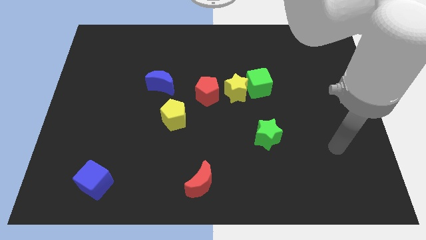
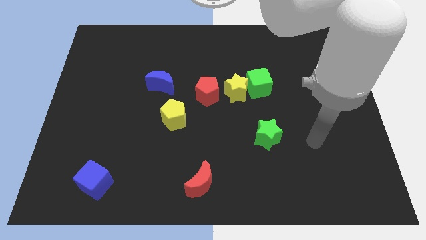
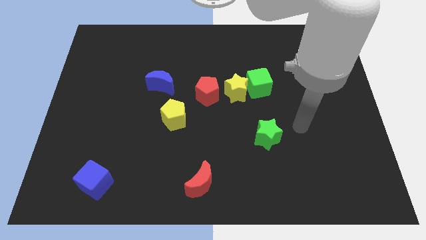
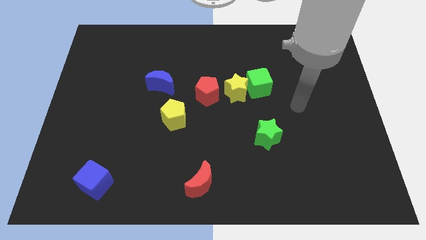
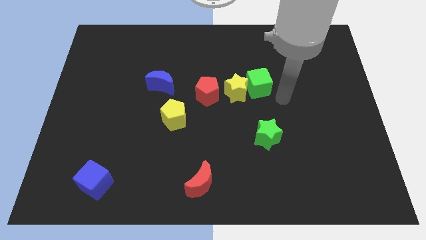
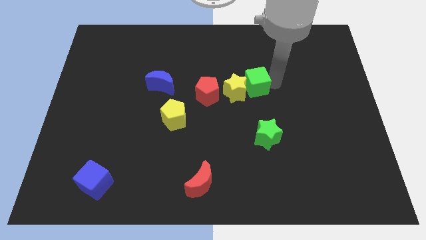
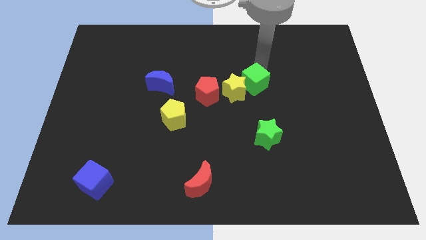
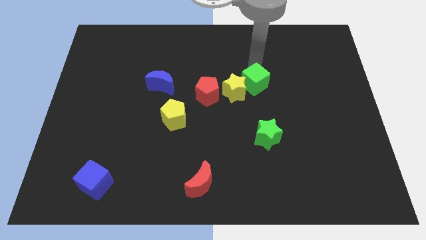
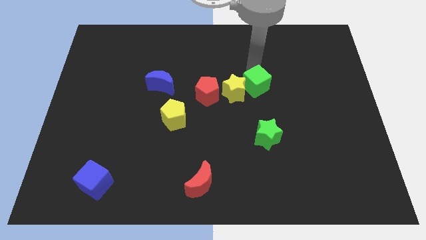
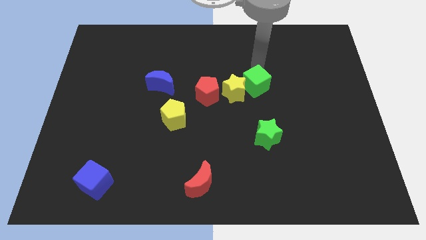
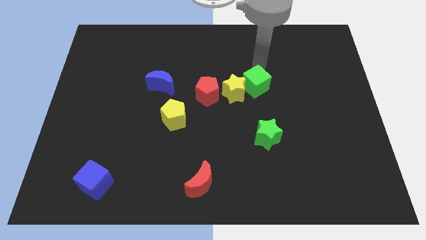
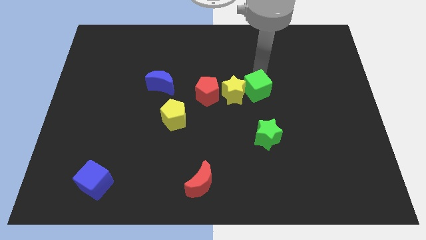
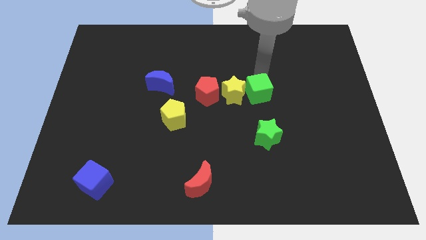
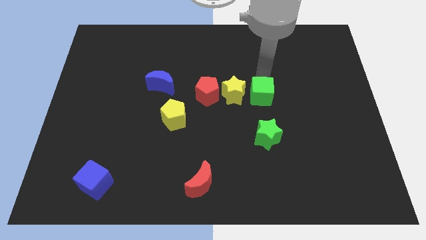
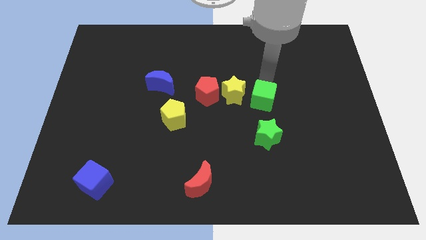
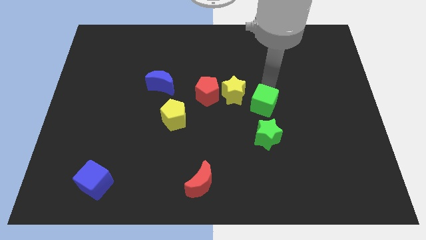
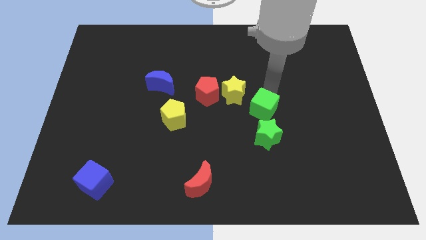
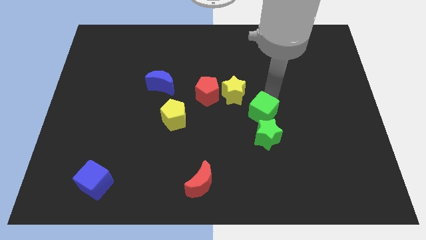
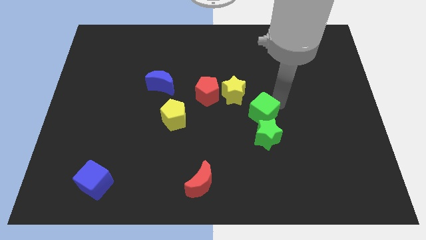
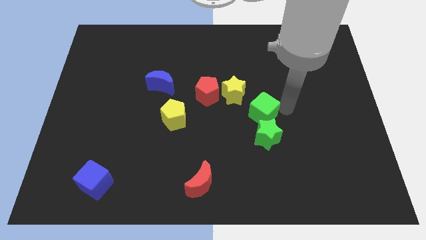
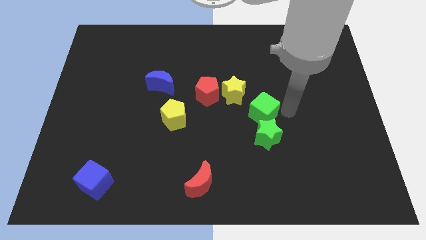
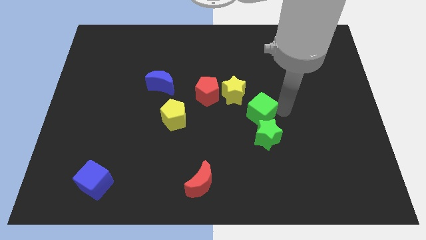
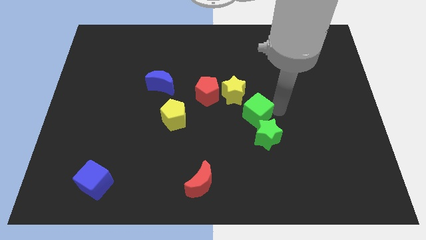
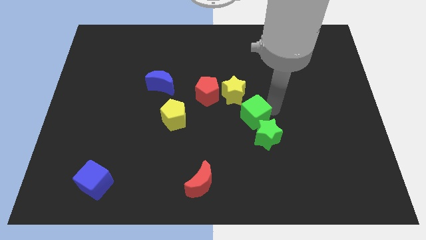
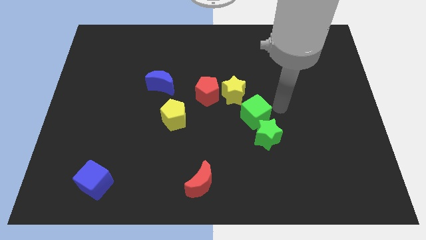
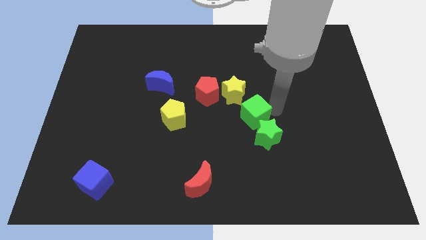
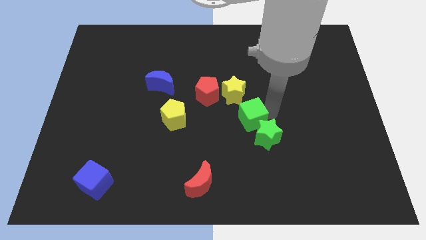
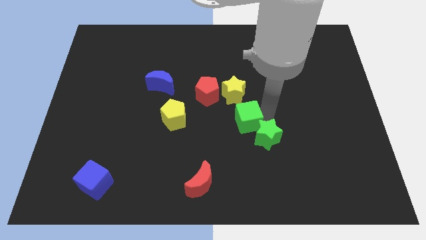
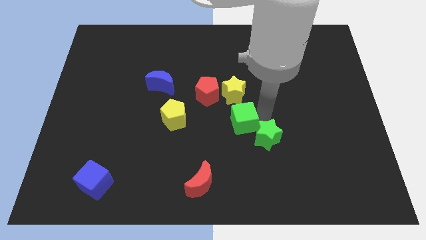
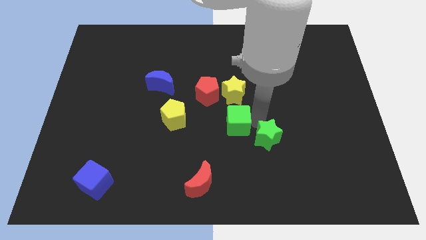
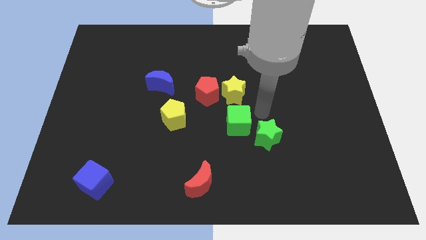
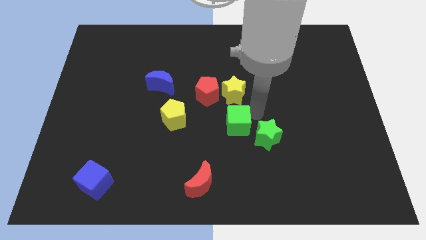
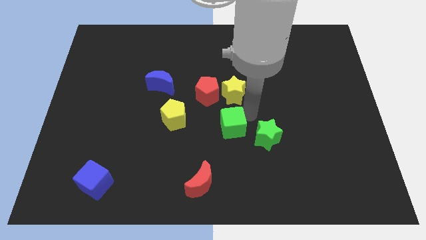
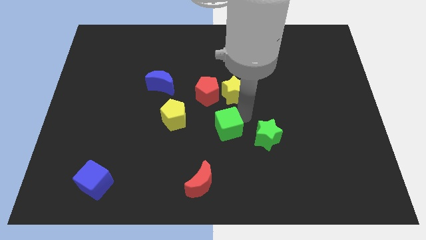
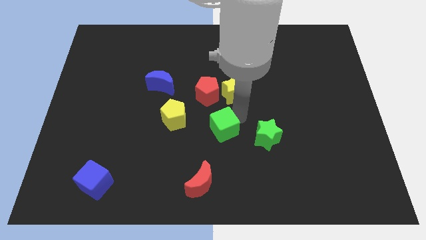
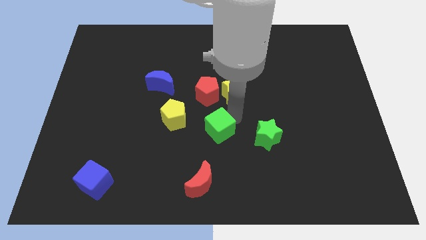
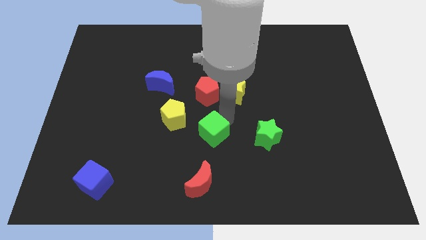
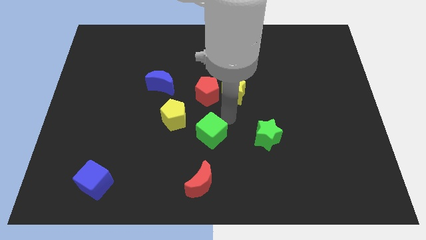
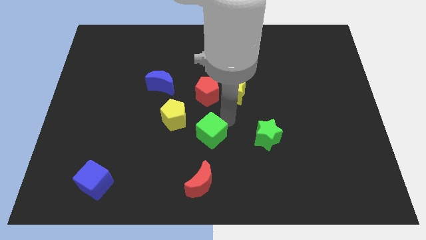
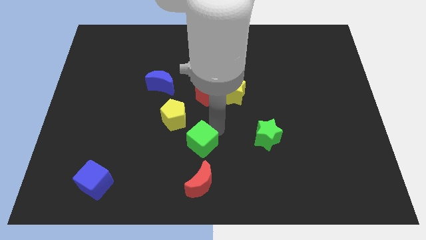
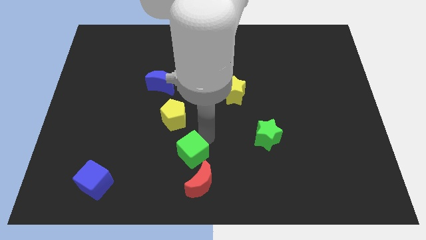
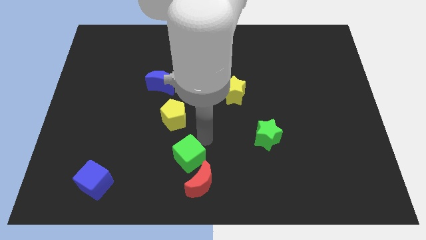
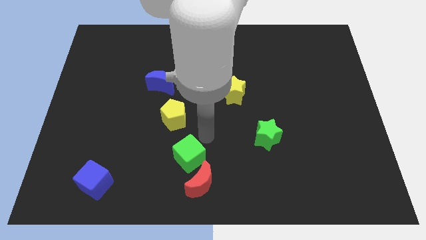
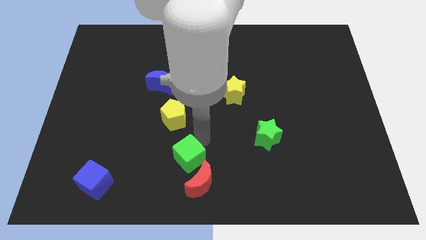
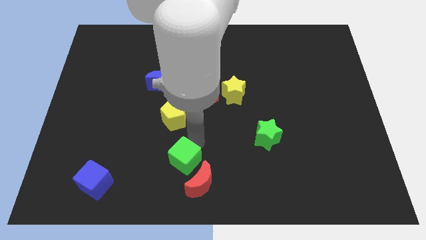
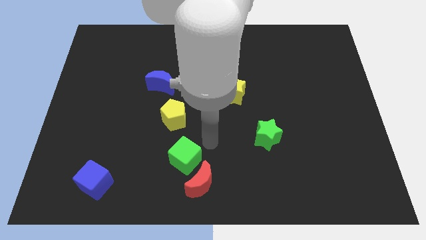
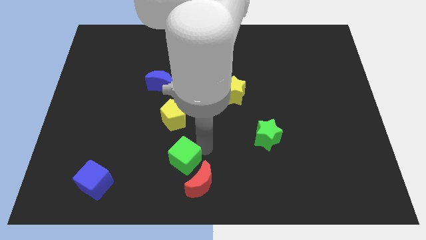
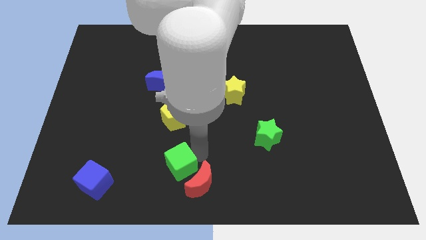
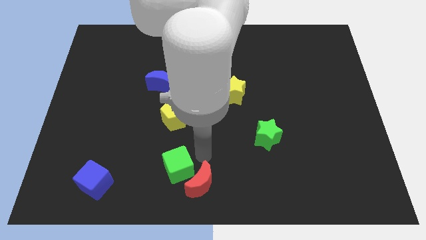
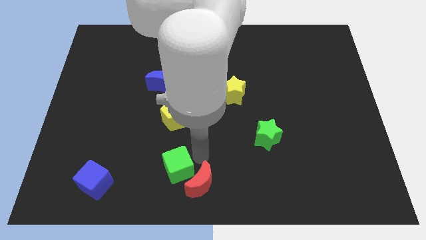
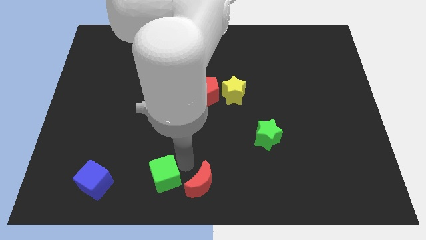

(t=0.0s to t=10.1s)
slide the green cube to the right side of the blue cube

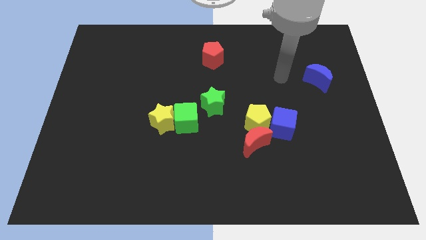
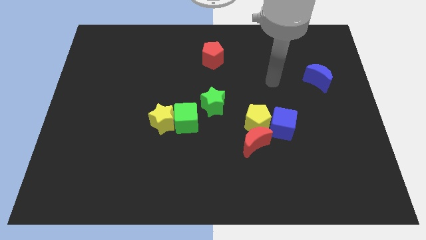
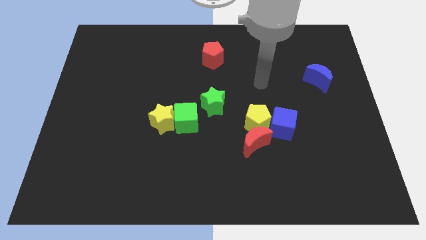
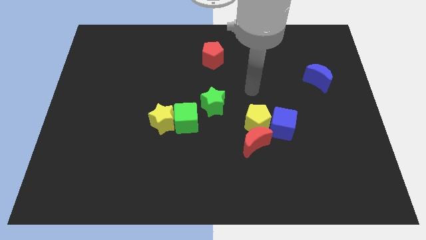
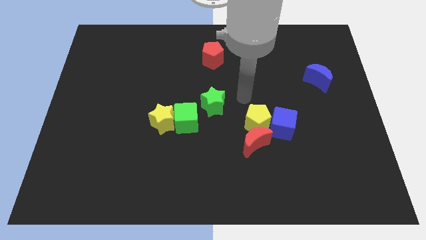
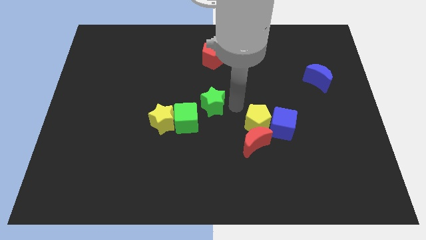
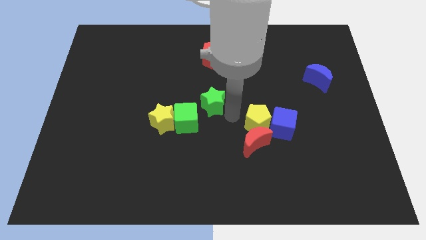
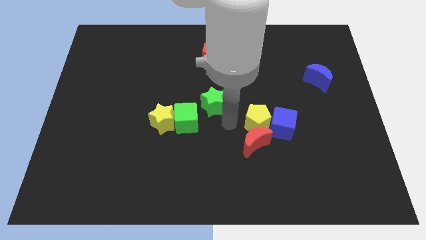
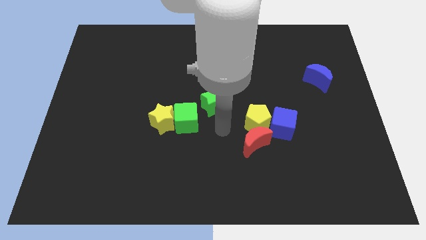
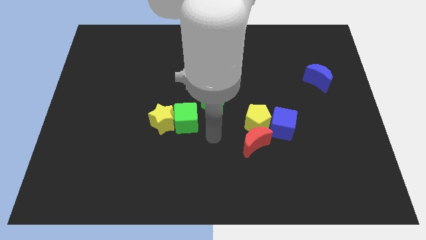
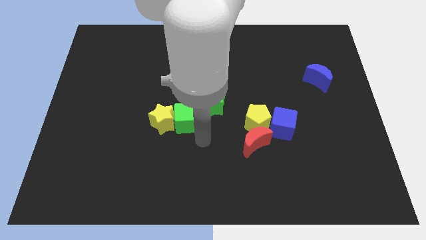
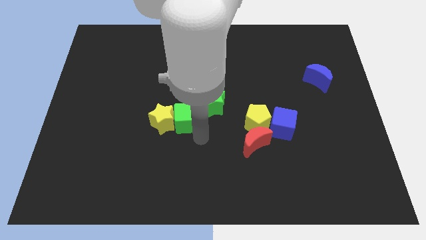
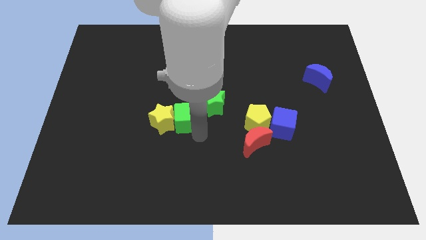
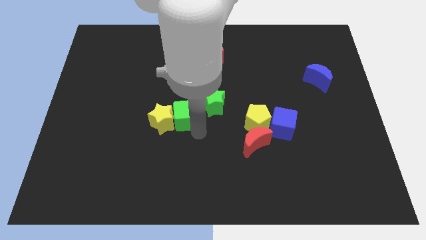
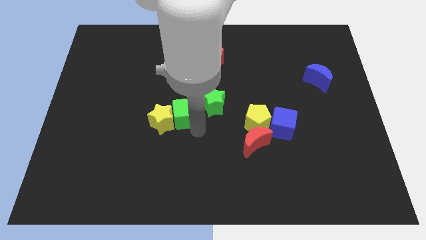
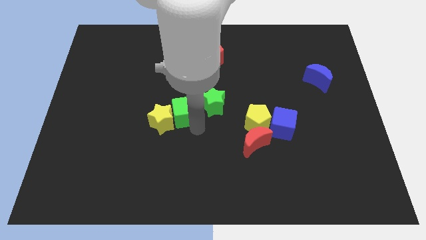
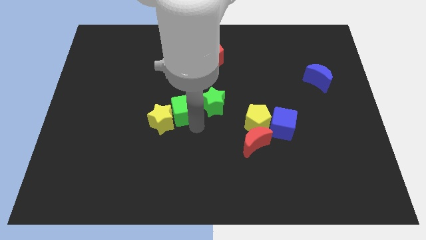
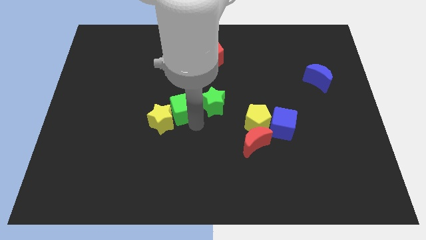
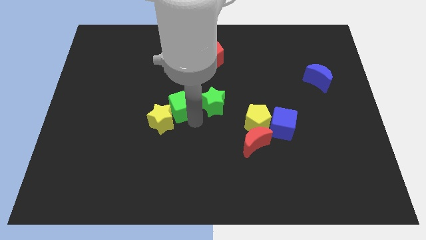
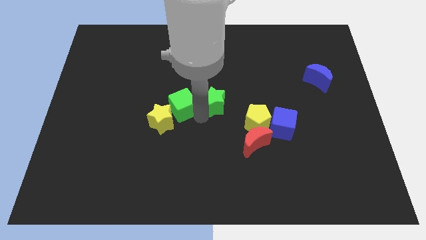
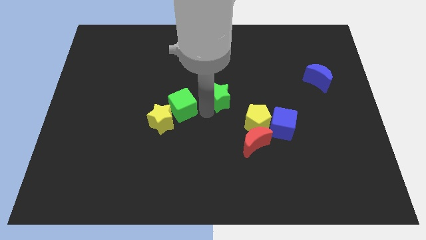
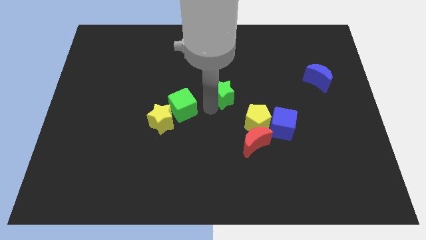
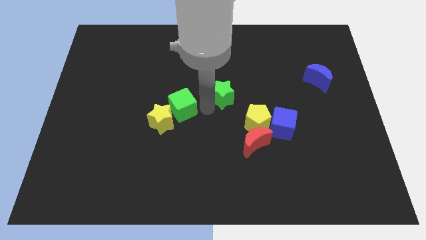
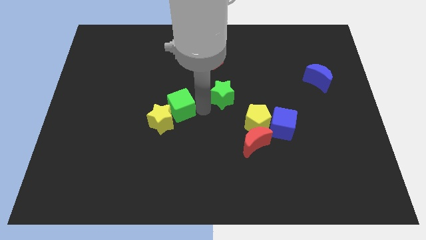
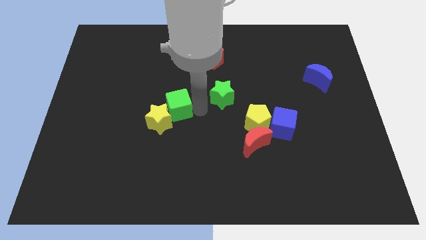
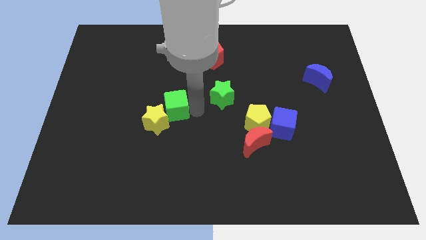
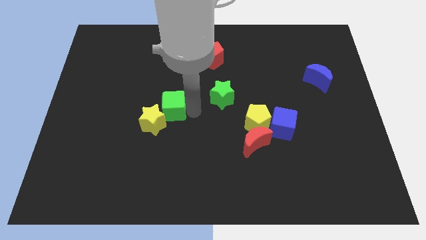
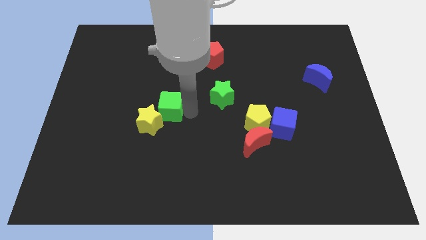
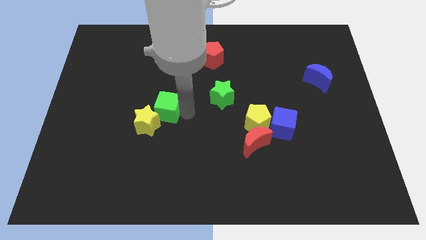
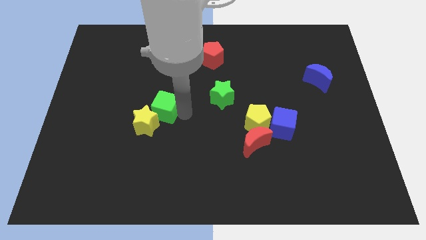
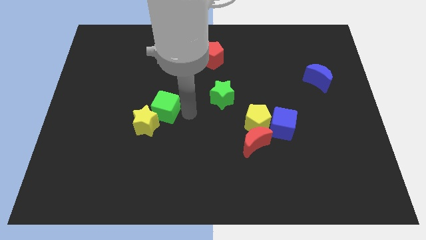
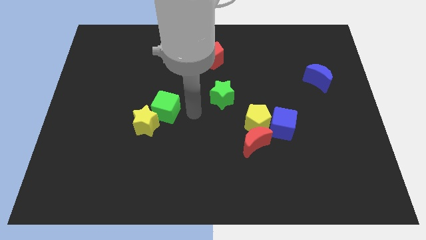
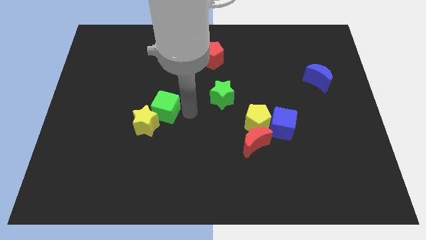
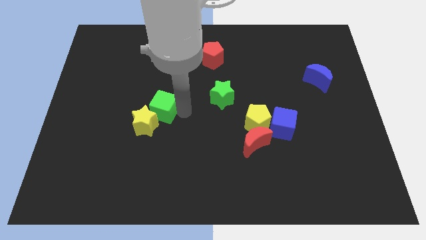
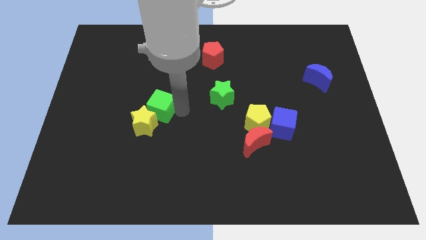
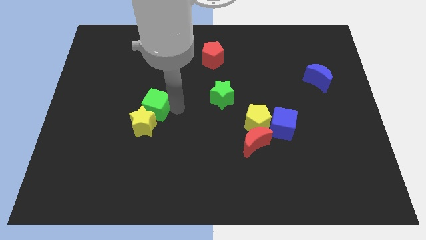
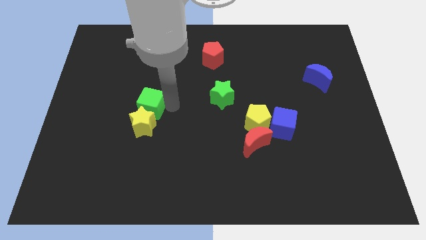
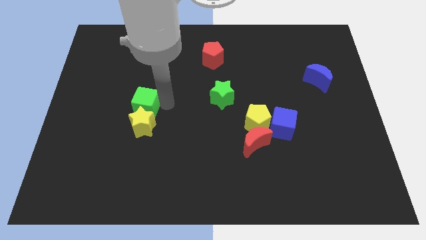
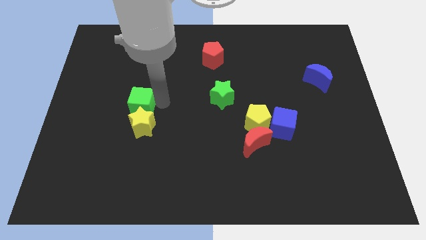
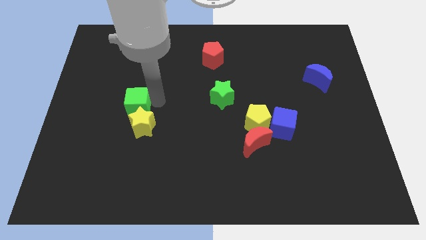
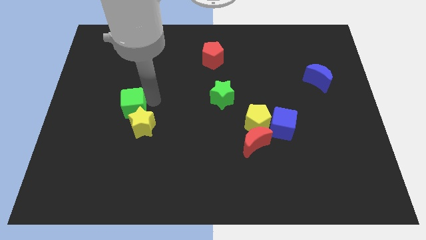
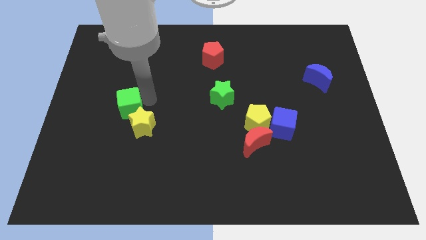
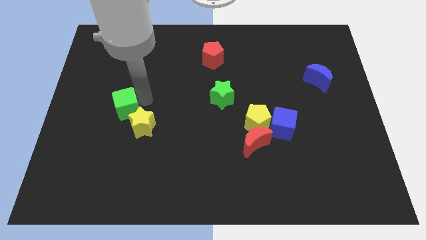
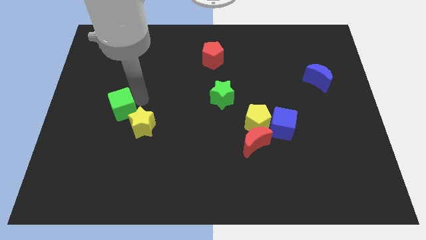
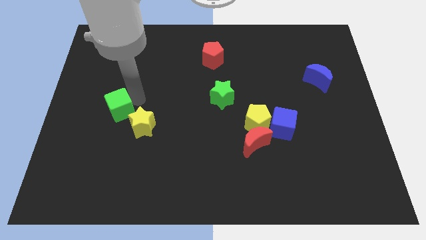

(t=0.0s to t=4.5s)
put the green cube just left of the yellow star
